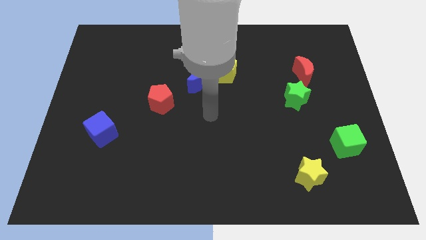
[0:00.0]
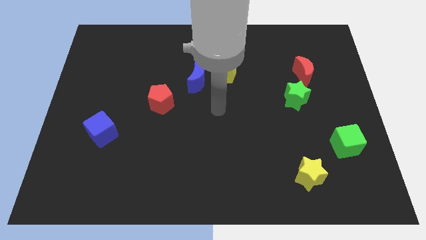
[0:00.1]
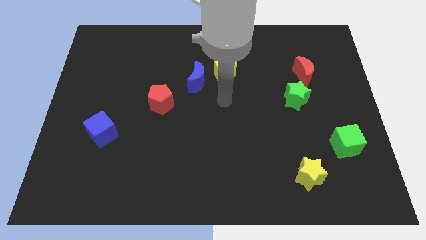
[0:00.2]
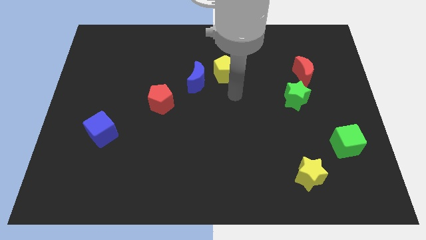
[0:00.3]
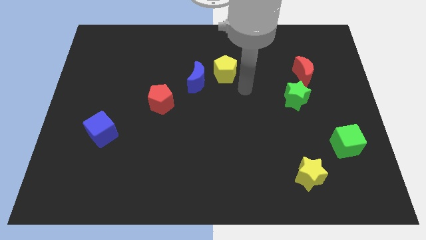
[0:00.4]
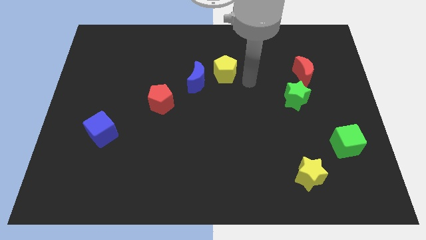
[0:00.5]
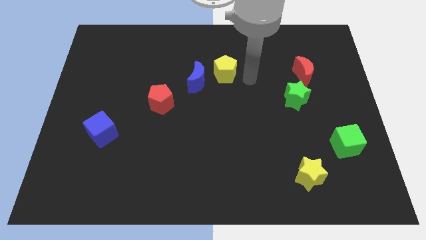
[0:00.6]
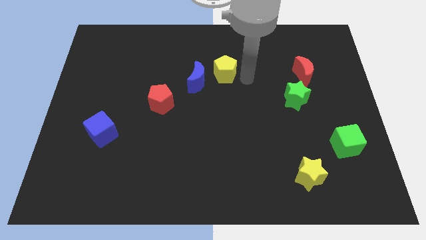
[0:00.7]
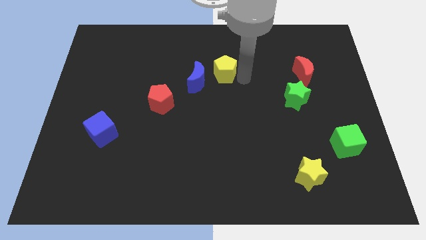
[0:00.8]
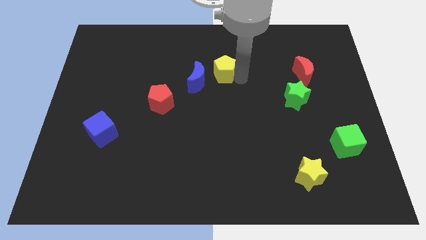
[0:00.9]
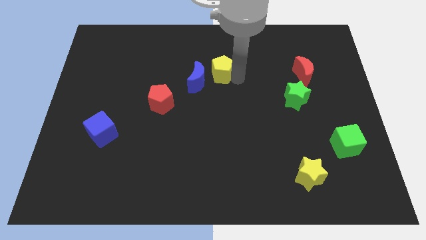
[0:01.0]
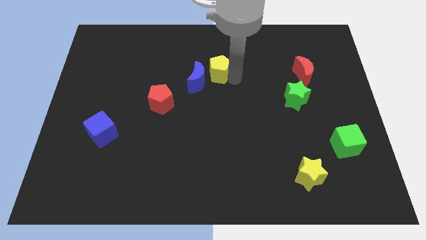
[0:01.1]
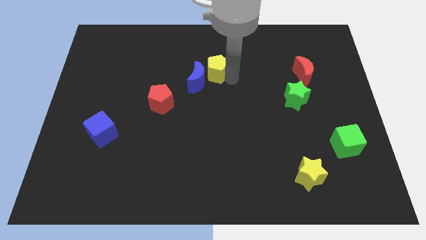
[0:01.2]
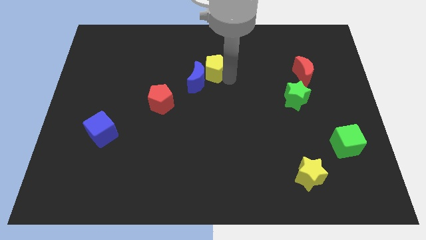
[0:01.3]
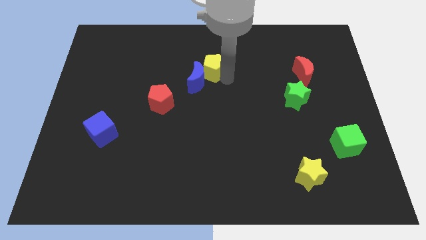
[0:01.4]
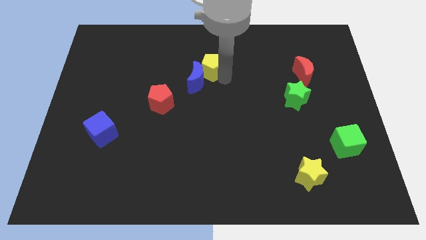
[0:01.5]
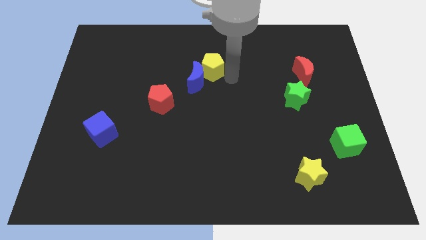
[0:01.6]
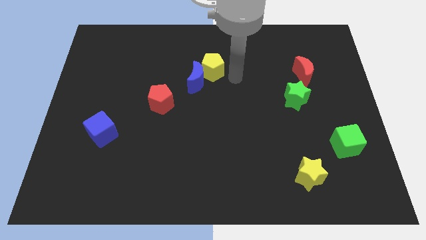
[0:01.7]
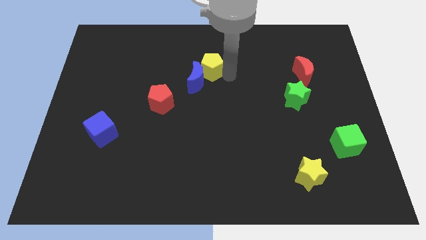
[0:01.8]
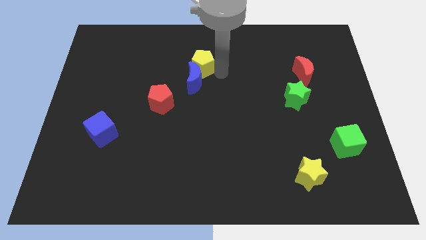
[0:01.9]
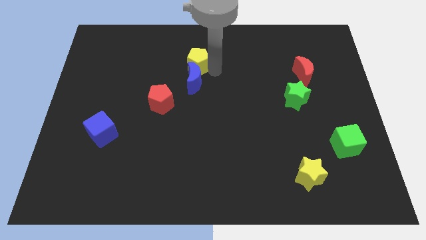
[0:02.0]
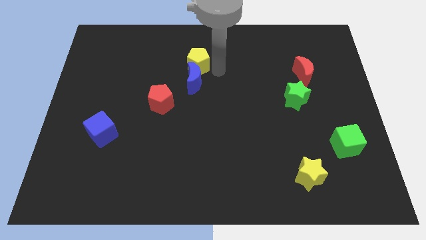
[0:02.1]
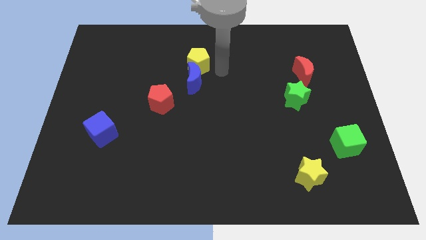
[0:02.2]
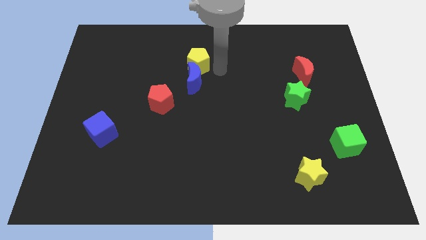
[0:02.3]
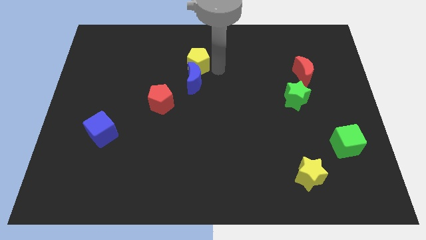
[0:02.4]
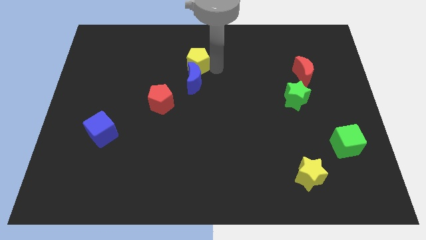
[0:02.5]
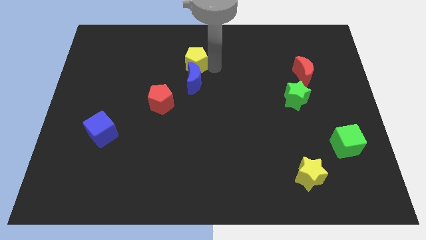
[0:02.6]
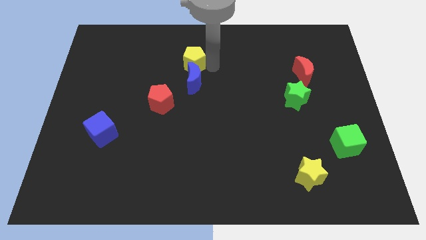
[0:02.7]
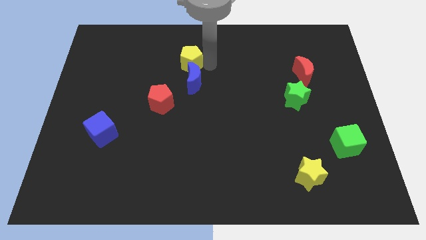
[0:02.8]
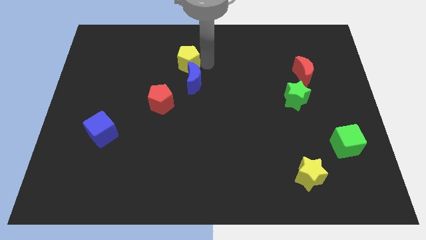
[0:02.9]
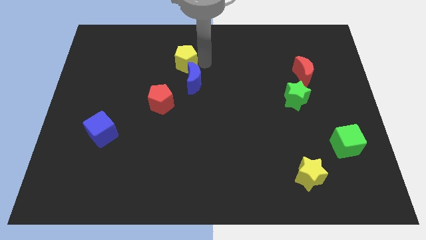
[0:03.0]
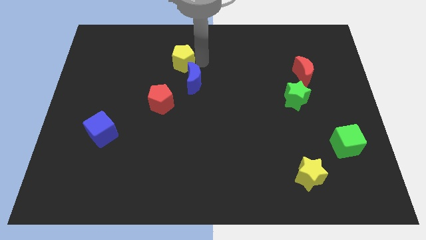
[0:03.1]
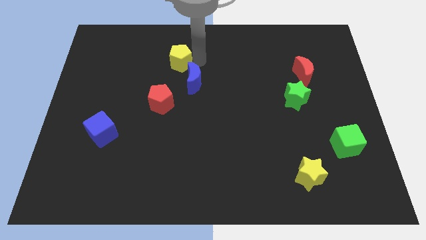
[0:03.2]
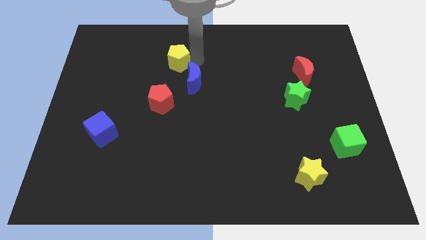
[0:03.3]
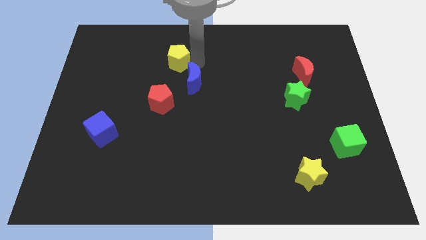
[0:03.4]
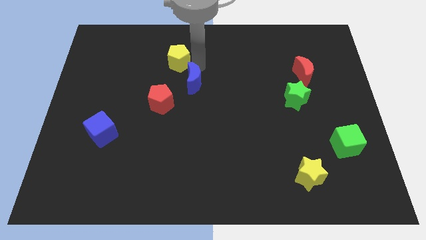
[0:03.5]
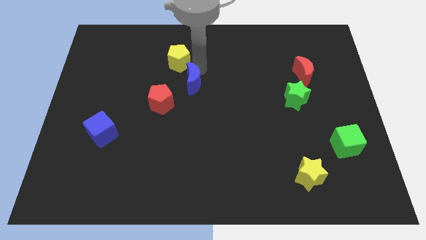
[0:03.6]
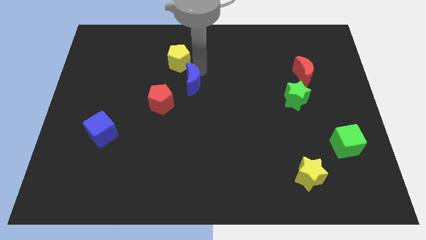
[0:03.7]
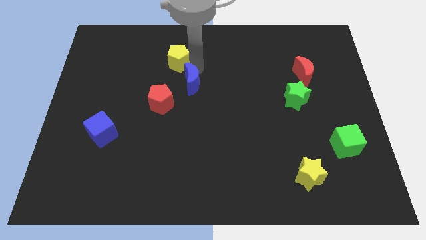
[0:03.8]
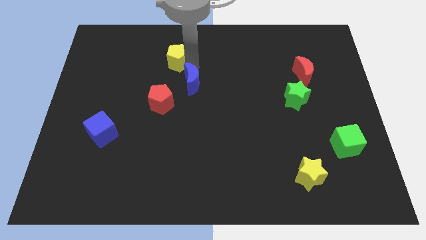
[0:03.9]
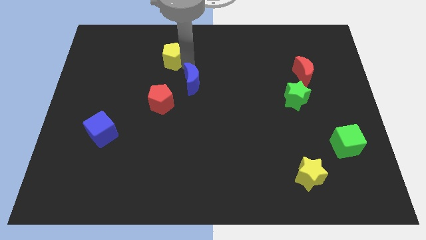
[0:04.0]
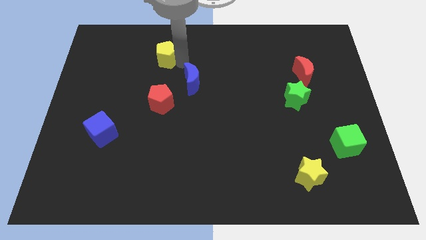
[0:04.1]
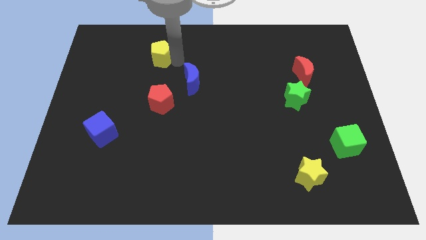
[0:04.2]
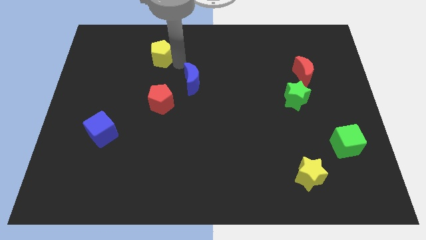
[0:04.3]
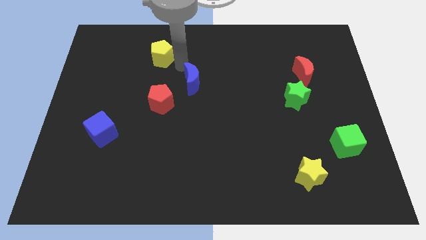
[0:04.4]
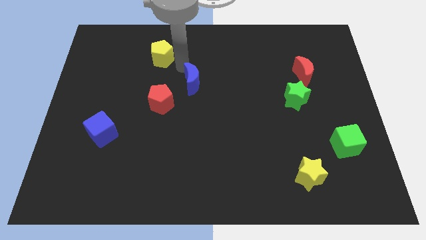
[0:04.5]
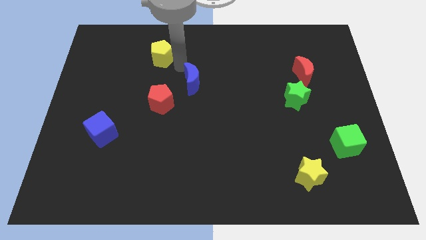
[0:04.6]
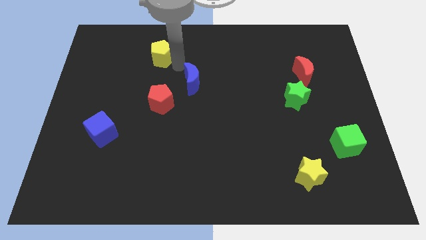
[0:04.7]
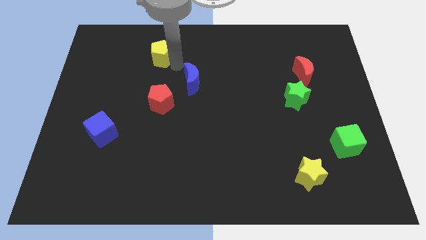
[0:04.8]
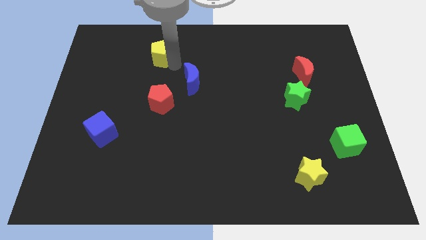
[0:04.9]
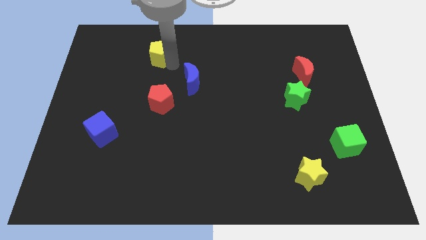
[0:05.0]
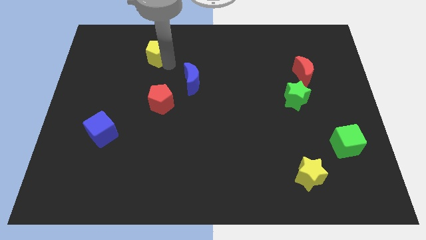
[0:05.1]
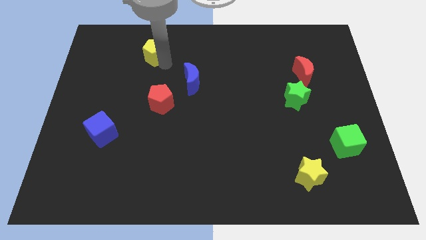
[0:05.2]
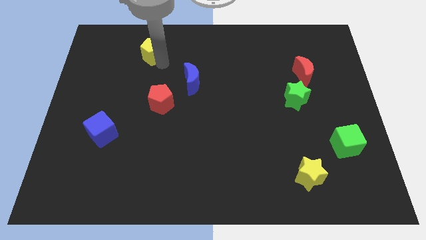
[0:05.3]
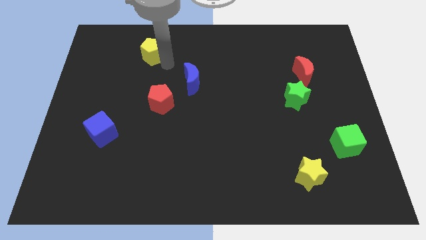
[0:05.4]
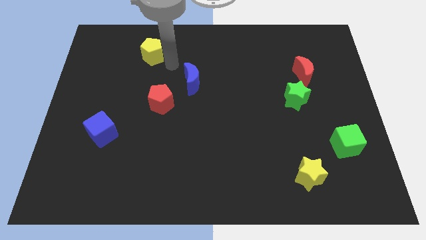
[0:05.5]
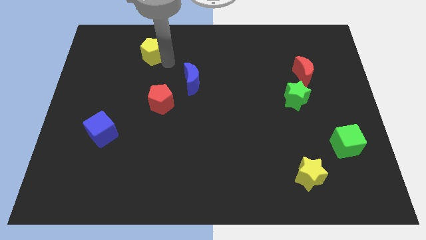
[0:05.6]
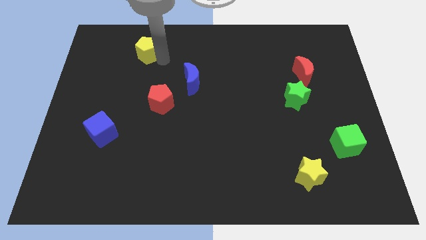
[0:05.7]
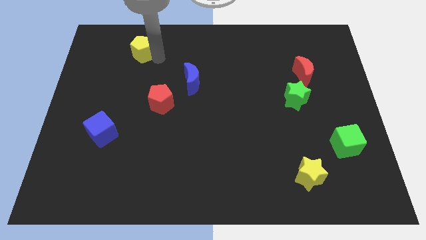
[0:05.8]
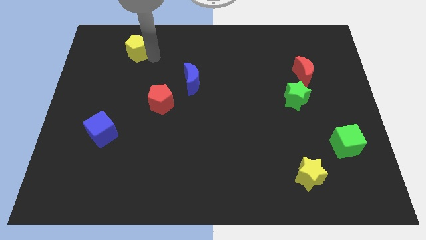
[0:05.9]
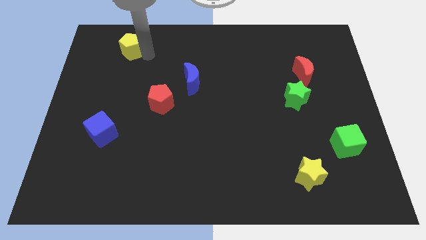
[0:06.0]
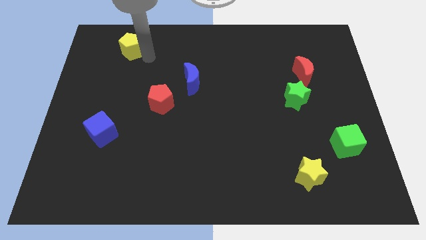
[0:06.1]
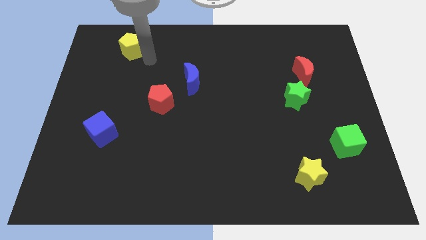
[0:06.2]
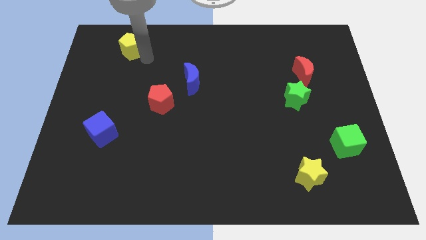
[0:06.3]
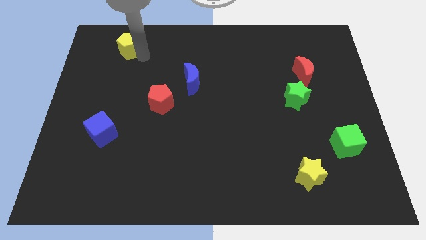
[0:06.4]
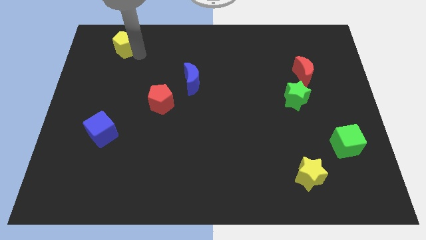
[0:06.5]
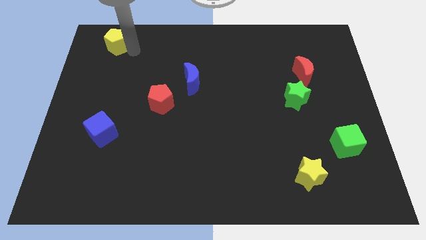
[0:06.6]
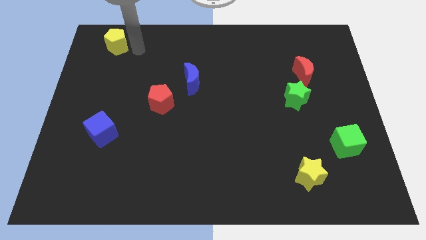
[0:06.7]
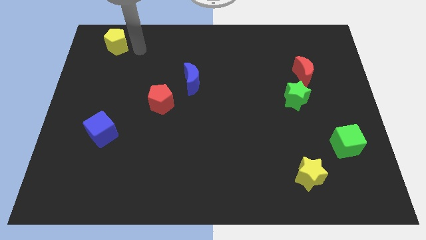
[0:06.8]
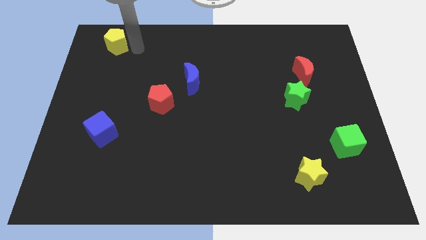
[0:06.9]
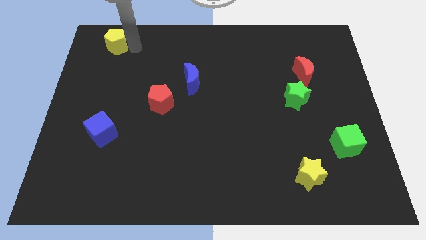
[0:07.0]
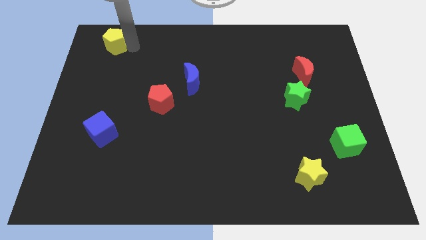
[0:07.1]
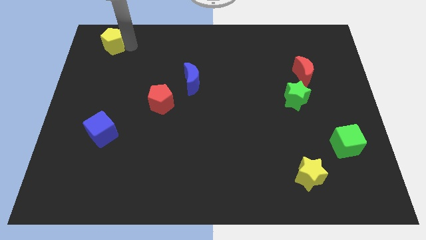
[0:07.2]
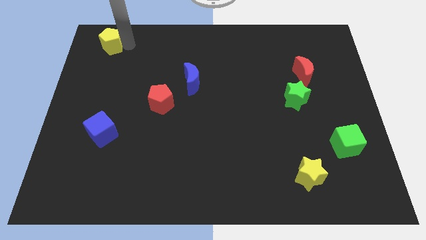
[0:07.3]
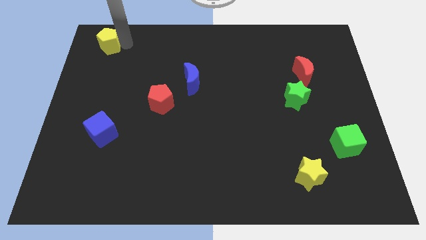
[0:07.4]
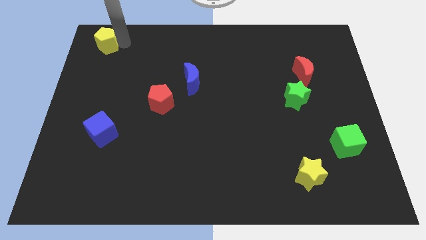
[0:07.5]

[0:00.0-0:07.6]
put the yellow pentagon to the upper left corner
